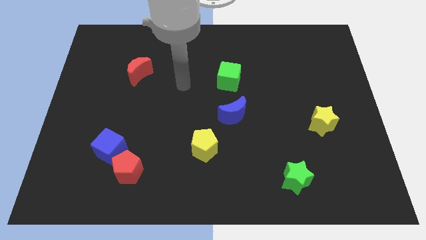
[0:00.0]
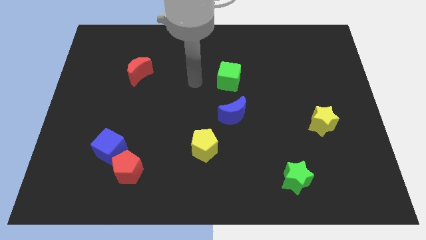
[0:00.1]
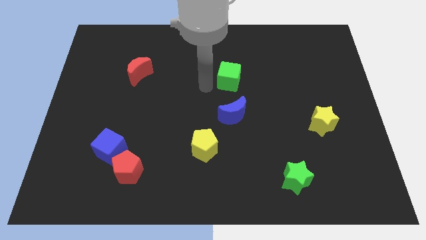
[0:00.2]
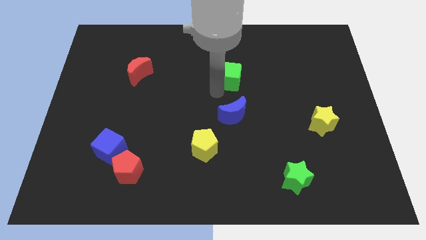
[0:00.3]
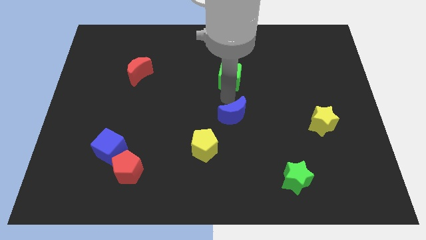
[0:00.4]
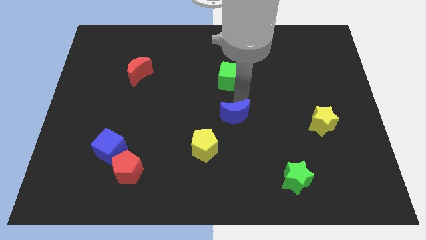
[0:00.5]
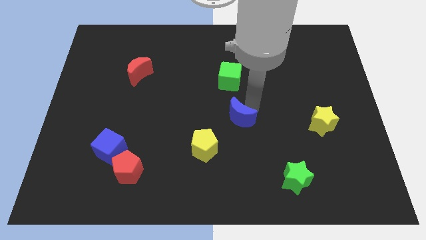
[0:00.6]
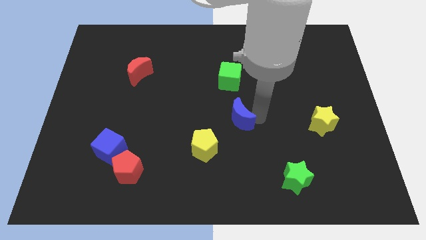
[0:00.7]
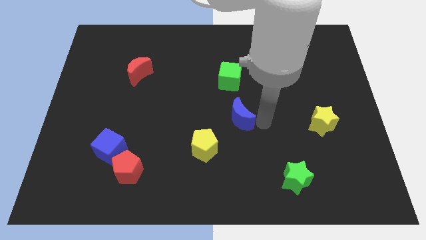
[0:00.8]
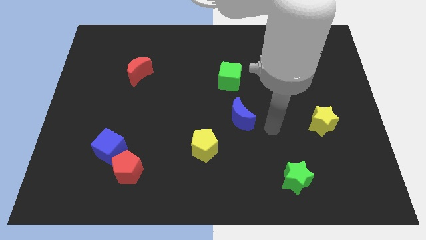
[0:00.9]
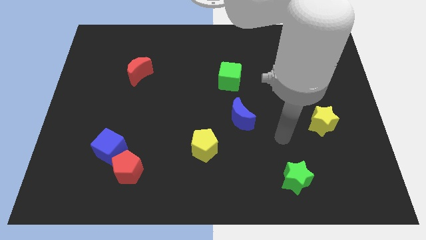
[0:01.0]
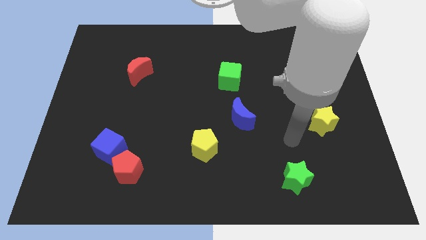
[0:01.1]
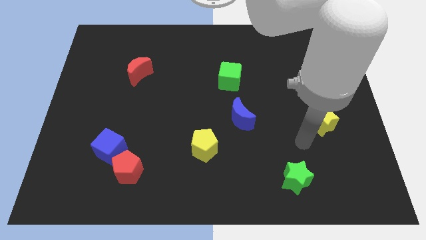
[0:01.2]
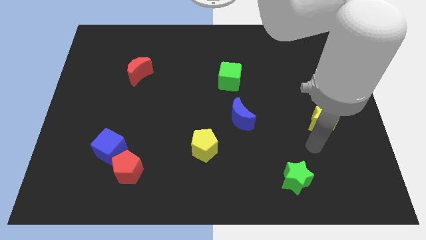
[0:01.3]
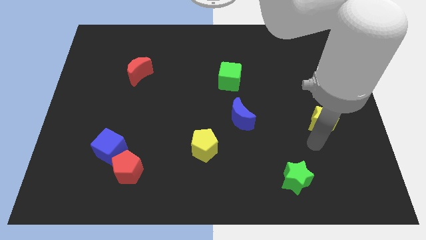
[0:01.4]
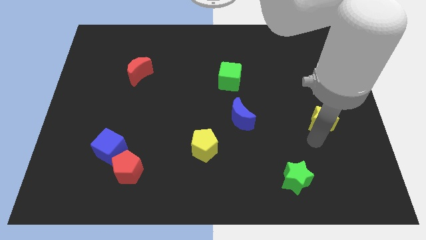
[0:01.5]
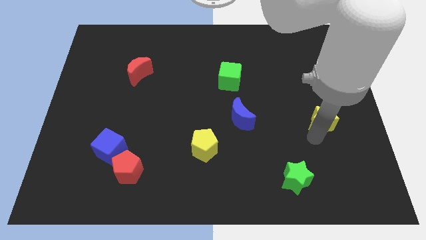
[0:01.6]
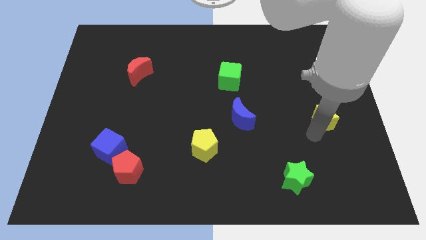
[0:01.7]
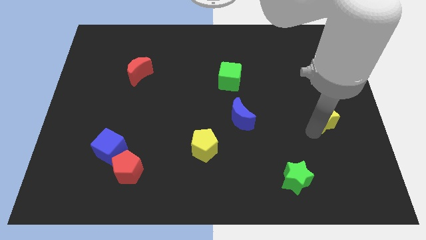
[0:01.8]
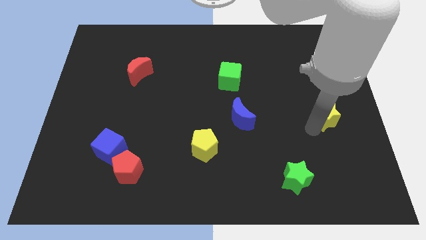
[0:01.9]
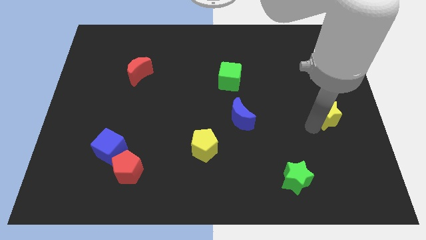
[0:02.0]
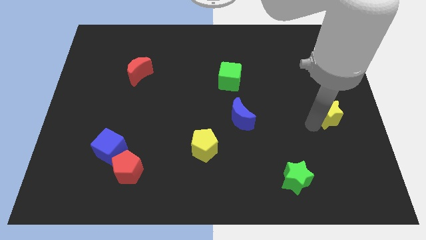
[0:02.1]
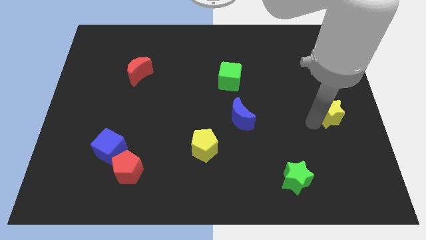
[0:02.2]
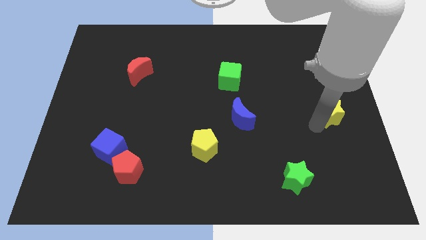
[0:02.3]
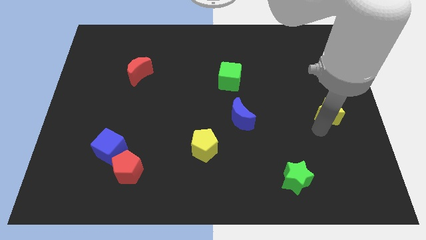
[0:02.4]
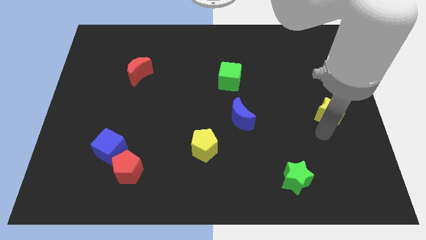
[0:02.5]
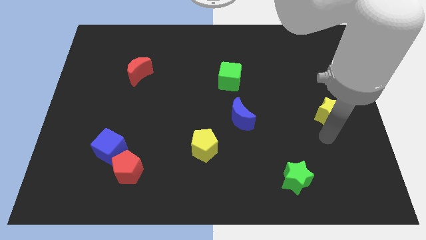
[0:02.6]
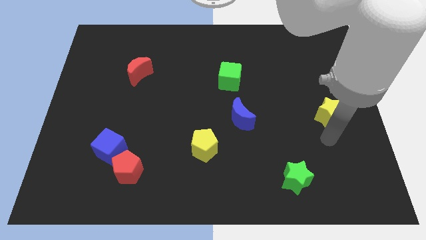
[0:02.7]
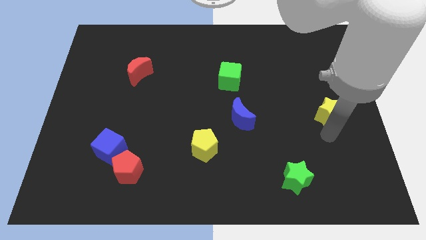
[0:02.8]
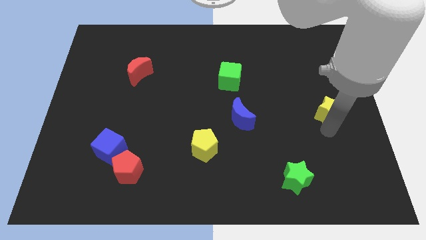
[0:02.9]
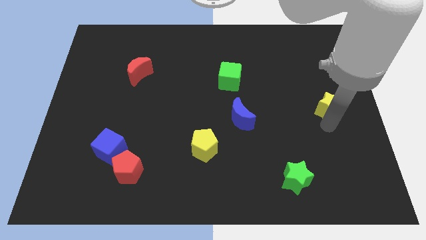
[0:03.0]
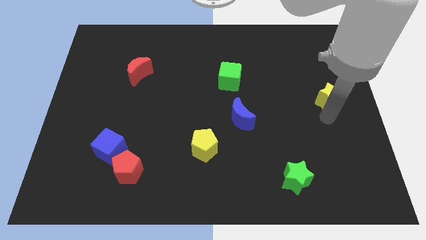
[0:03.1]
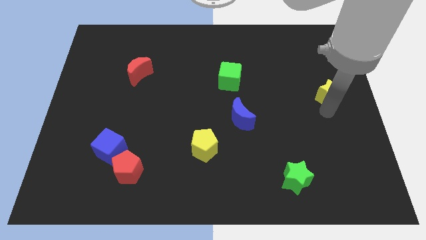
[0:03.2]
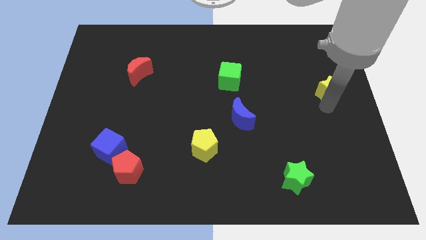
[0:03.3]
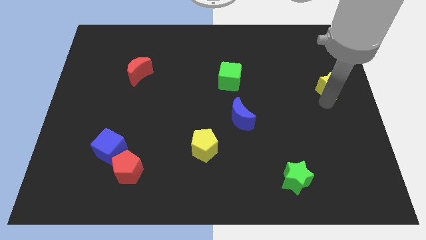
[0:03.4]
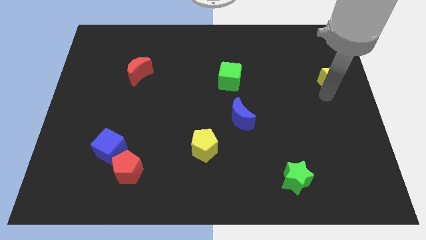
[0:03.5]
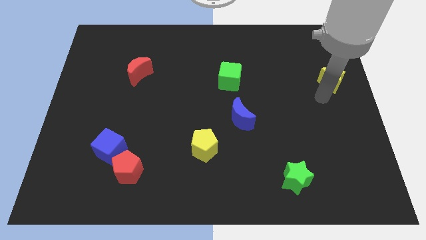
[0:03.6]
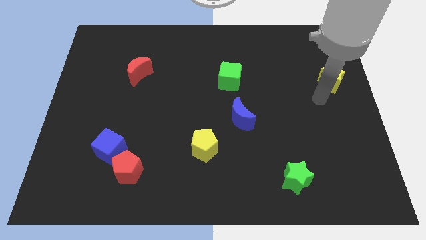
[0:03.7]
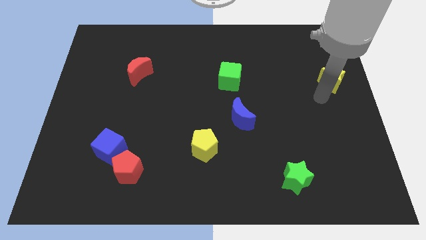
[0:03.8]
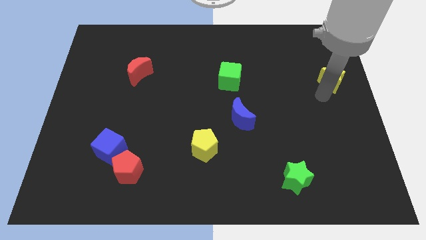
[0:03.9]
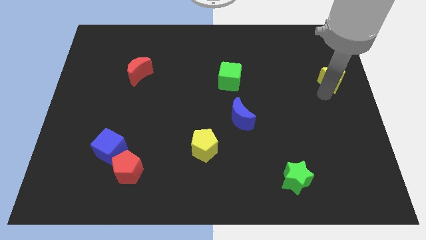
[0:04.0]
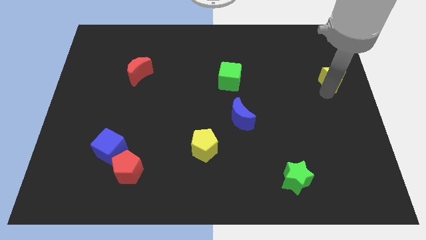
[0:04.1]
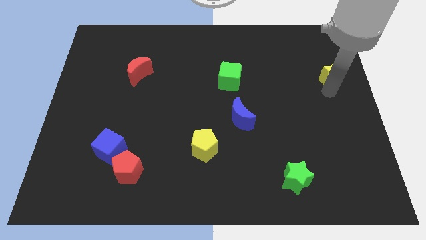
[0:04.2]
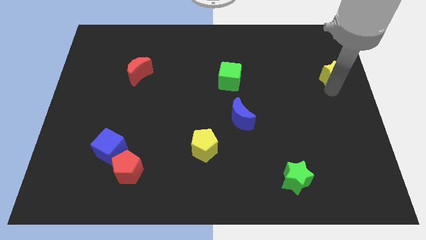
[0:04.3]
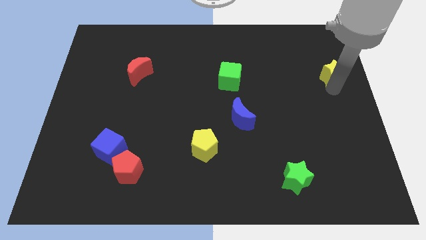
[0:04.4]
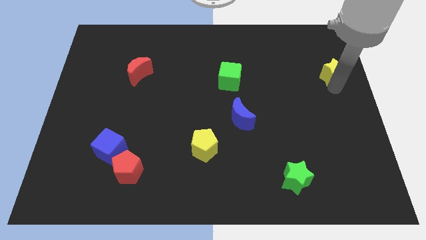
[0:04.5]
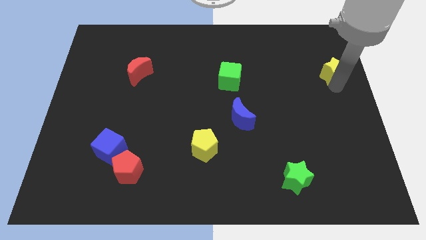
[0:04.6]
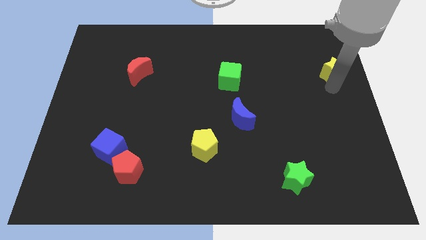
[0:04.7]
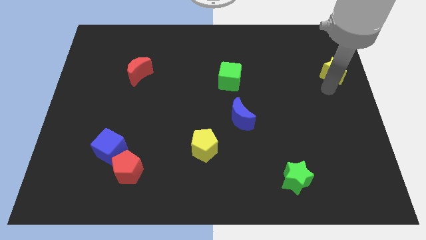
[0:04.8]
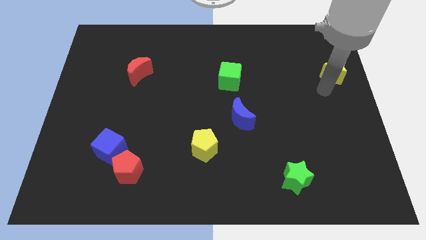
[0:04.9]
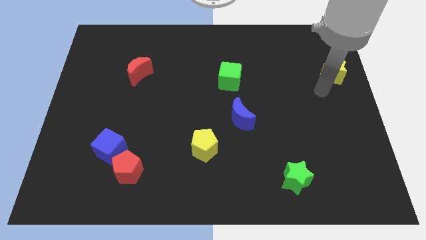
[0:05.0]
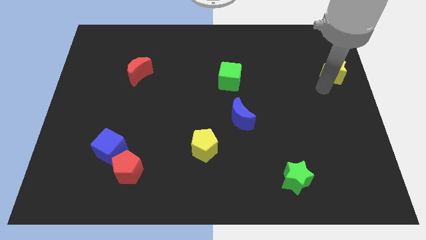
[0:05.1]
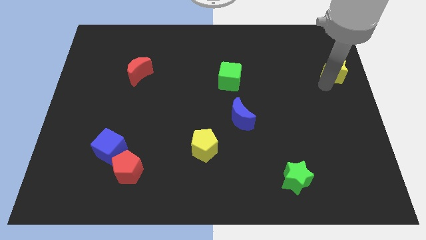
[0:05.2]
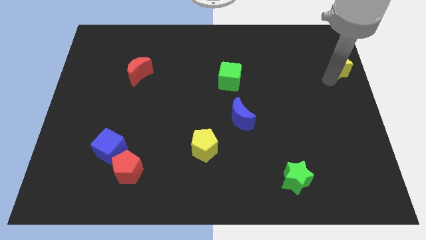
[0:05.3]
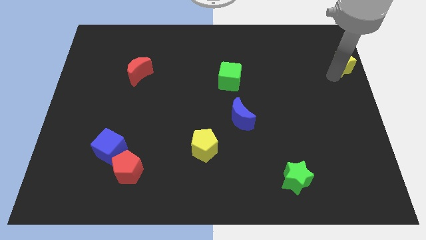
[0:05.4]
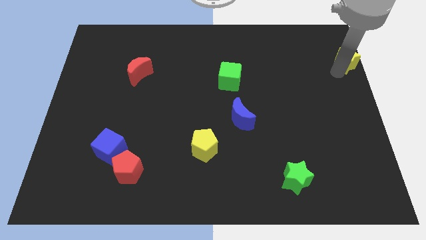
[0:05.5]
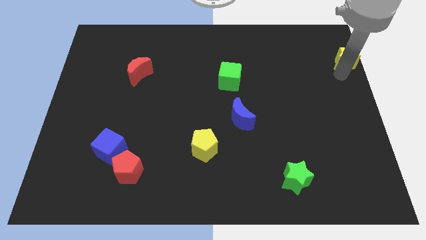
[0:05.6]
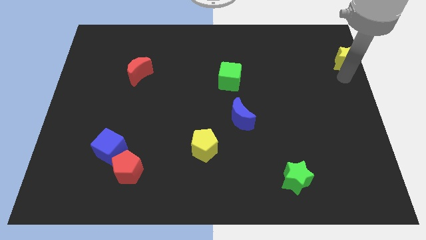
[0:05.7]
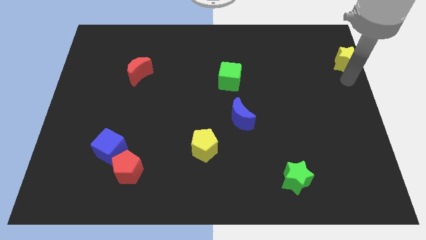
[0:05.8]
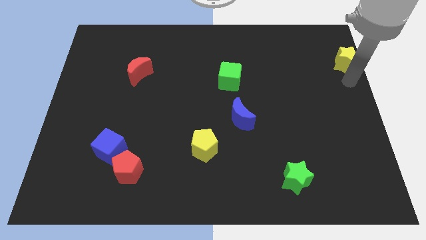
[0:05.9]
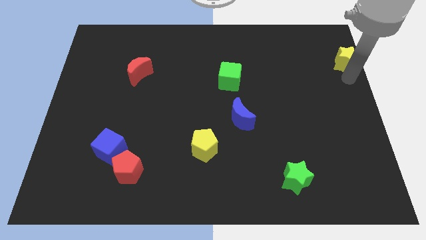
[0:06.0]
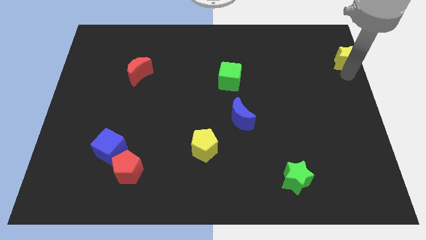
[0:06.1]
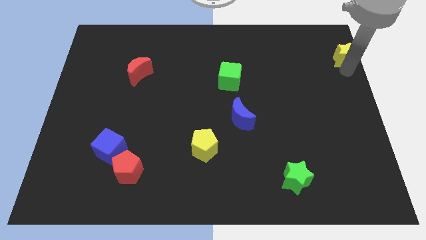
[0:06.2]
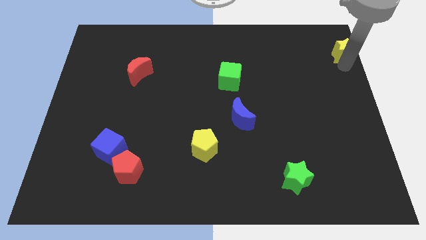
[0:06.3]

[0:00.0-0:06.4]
put the yellow star to the top right corner
